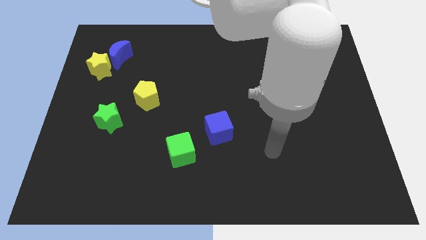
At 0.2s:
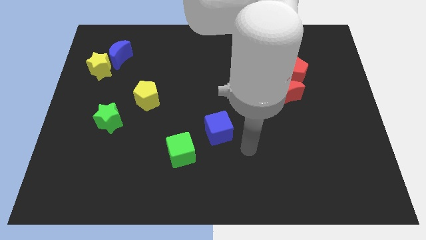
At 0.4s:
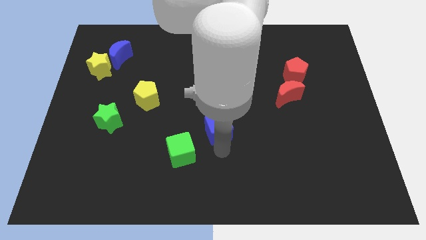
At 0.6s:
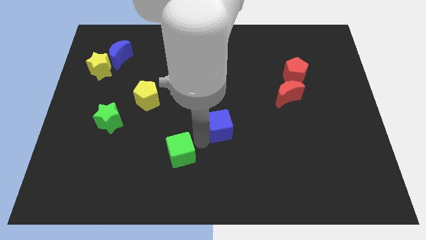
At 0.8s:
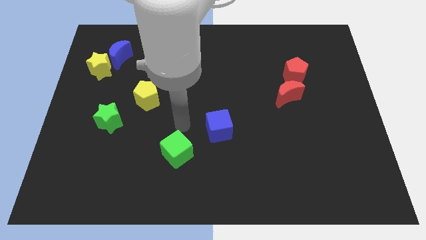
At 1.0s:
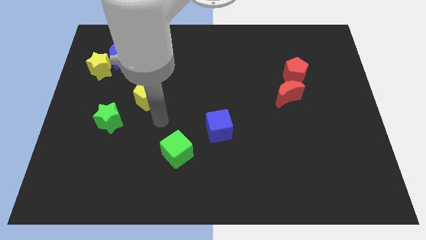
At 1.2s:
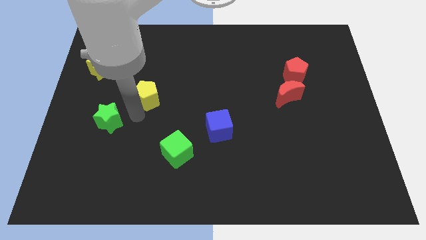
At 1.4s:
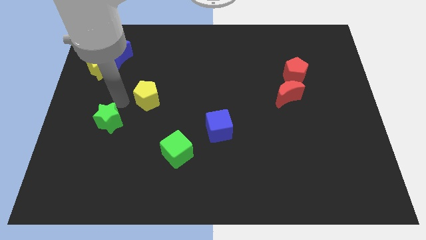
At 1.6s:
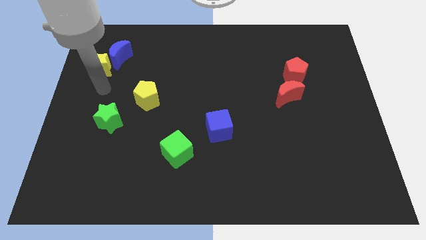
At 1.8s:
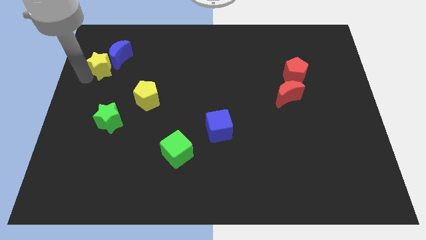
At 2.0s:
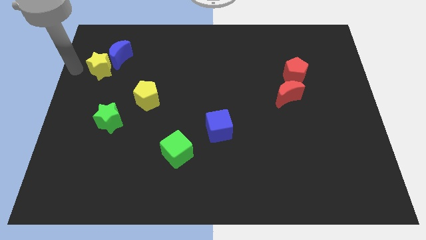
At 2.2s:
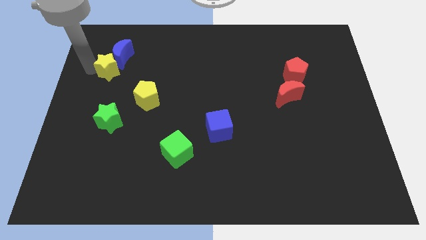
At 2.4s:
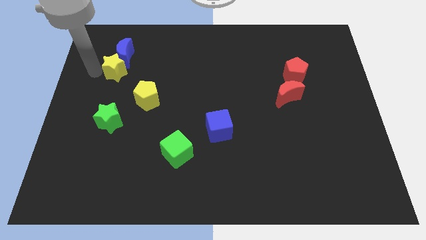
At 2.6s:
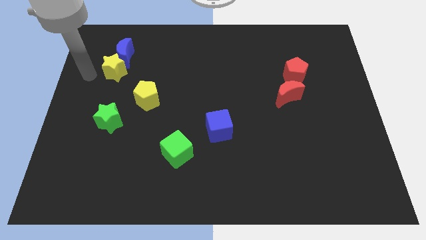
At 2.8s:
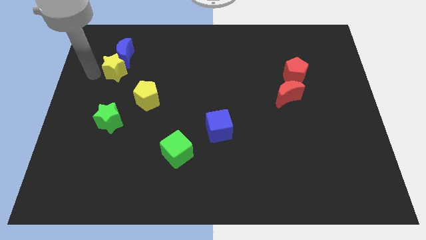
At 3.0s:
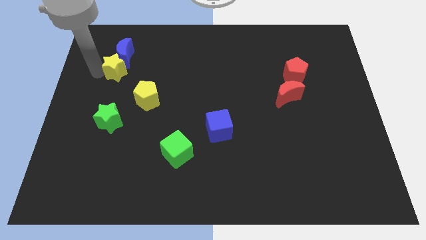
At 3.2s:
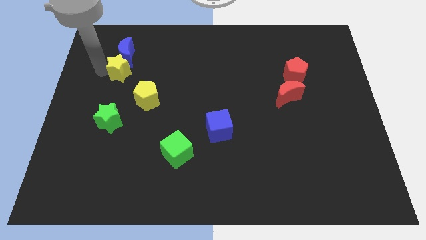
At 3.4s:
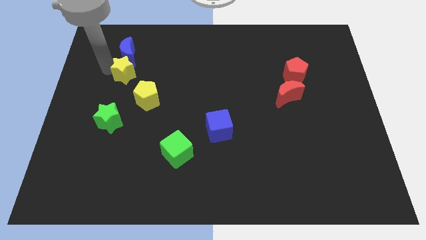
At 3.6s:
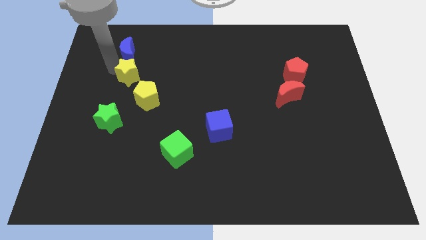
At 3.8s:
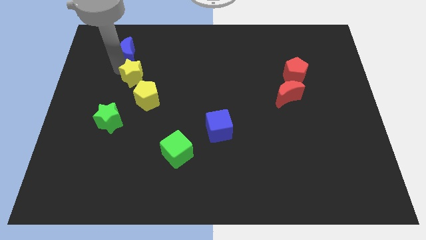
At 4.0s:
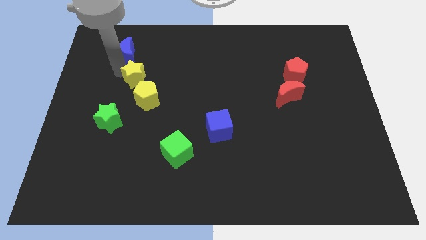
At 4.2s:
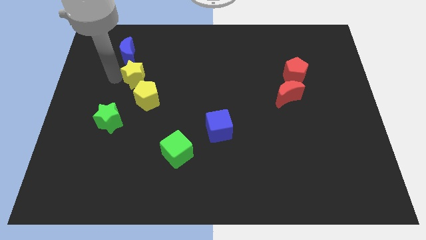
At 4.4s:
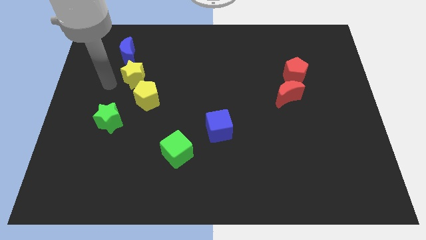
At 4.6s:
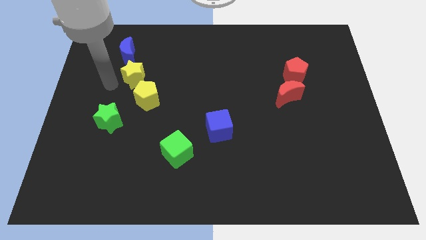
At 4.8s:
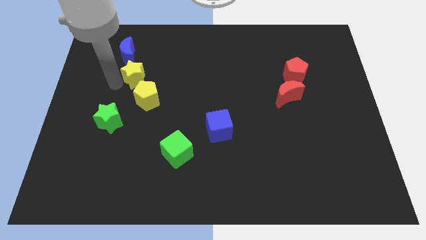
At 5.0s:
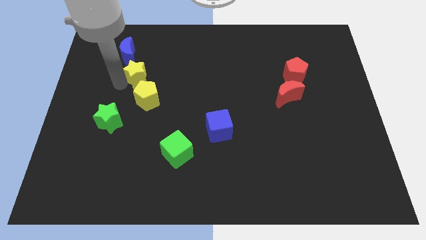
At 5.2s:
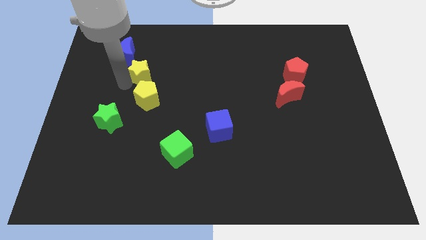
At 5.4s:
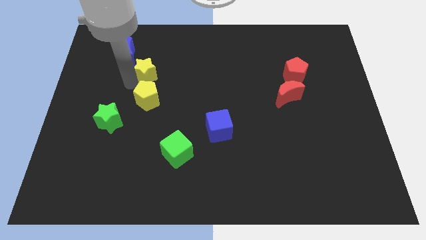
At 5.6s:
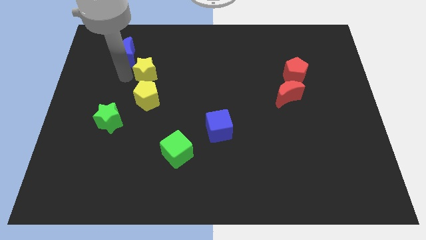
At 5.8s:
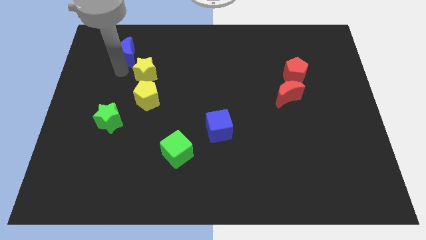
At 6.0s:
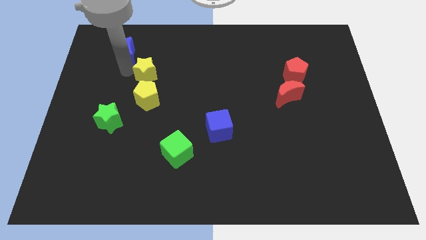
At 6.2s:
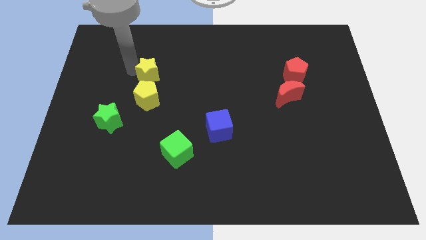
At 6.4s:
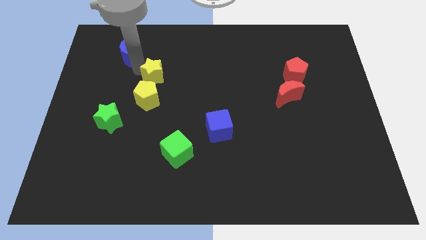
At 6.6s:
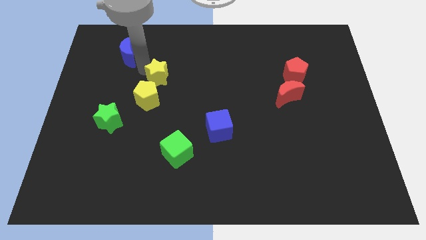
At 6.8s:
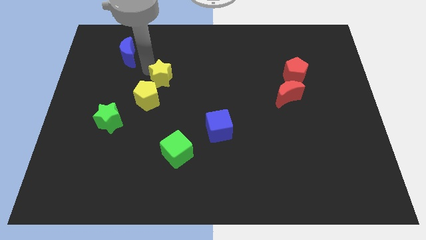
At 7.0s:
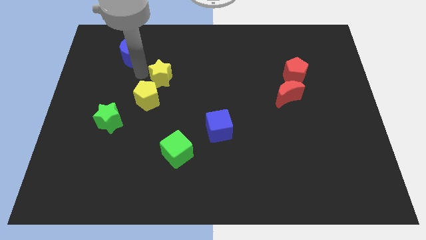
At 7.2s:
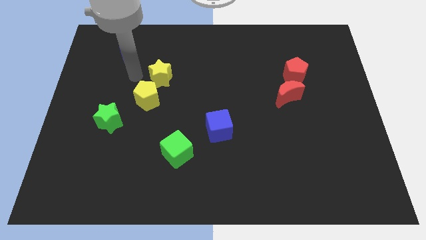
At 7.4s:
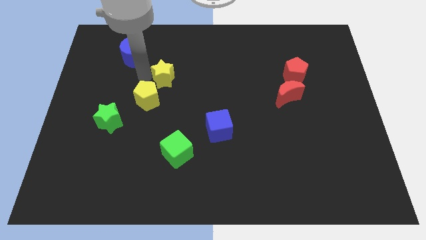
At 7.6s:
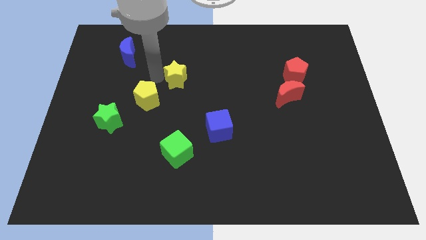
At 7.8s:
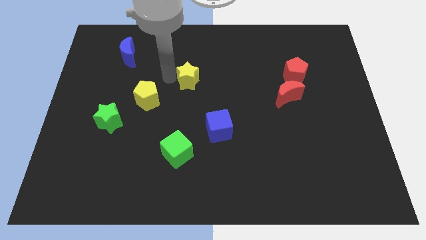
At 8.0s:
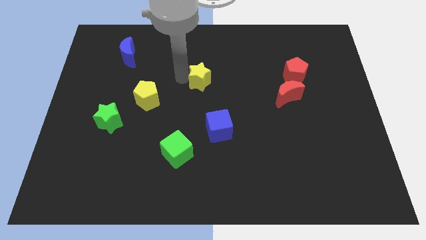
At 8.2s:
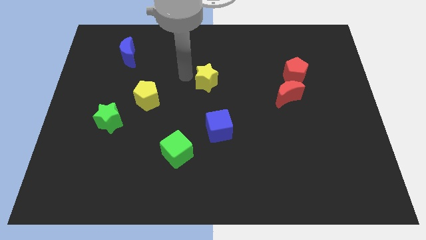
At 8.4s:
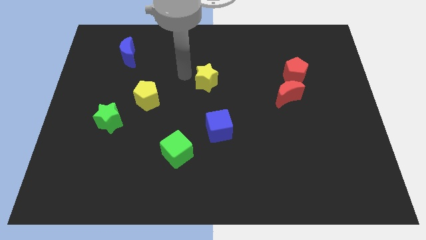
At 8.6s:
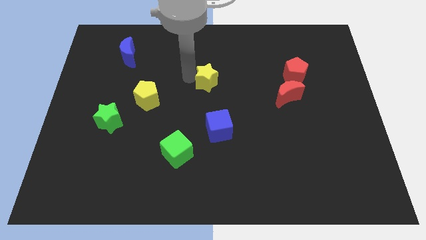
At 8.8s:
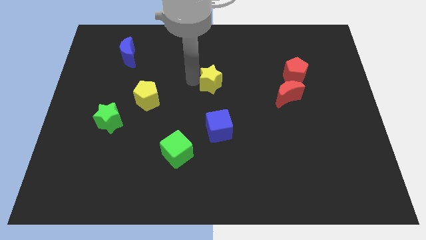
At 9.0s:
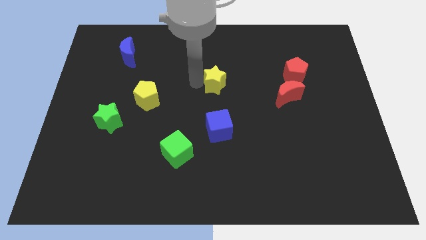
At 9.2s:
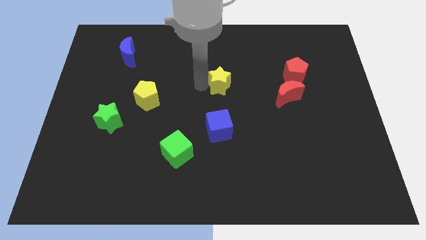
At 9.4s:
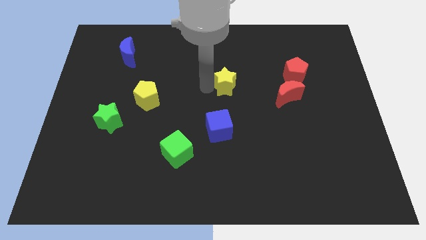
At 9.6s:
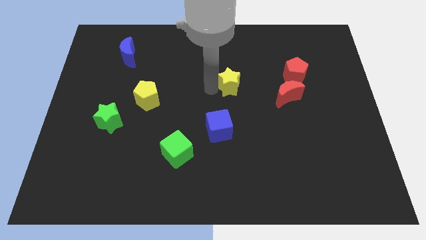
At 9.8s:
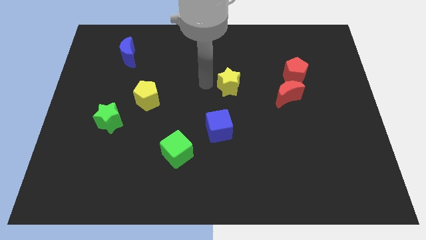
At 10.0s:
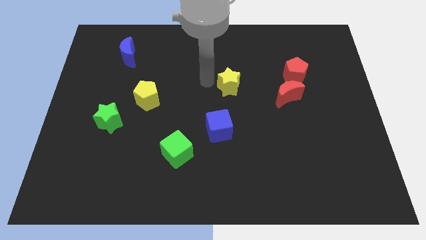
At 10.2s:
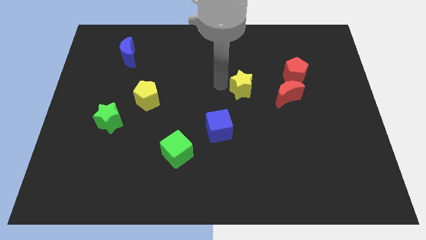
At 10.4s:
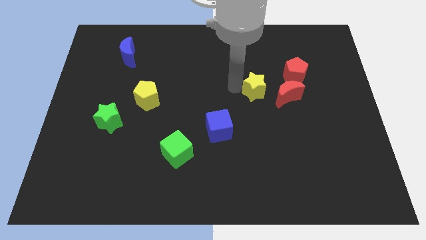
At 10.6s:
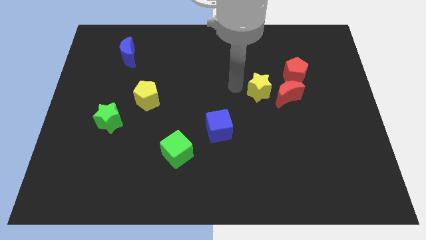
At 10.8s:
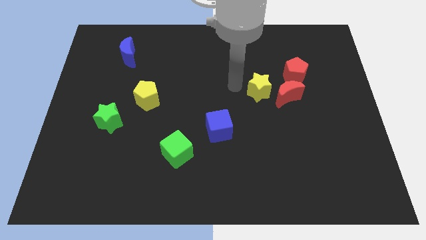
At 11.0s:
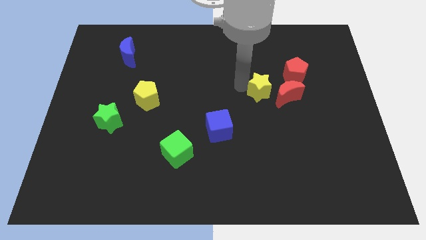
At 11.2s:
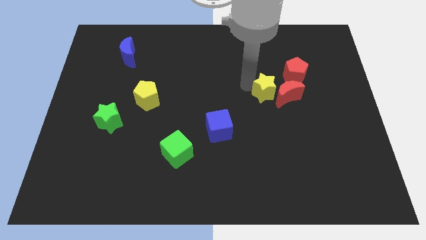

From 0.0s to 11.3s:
slide the yellow star towards the red moon

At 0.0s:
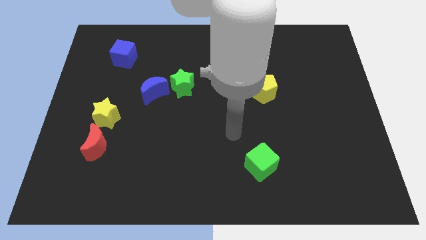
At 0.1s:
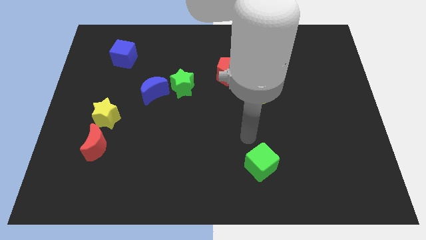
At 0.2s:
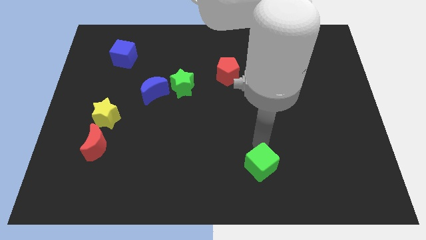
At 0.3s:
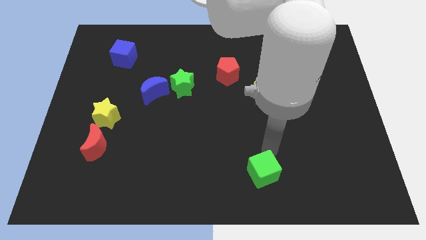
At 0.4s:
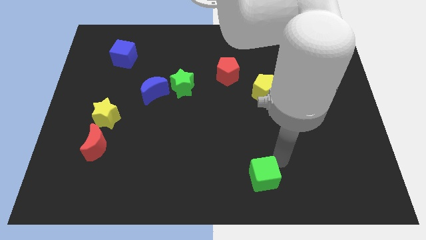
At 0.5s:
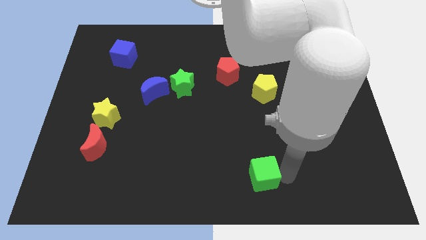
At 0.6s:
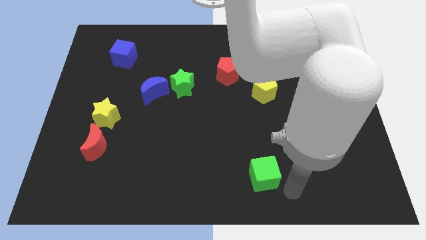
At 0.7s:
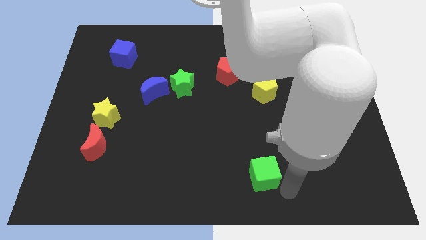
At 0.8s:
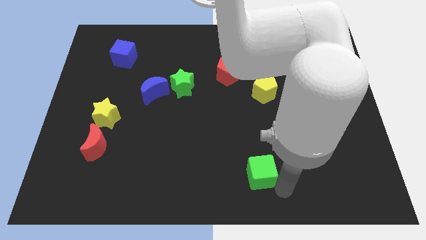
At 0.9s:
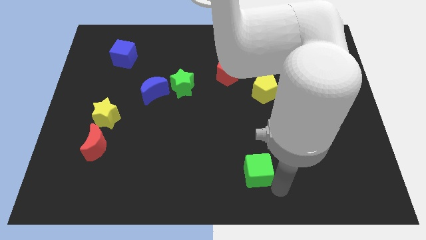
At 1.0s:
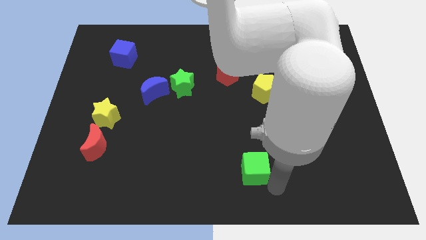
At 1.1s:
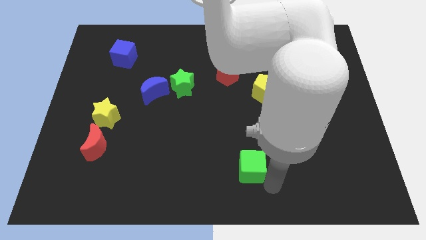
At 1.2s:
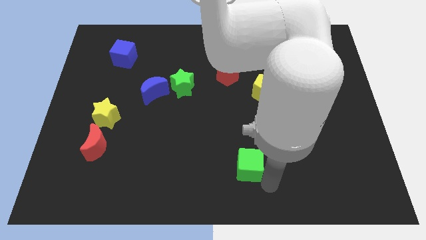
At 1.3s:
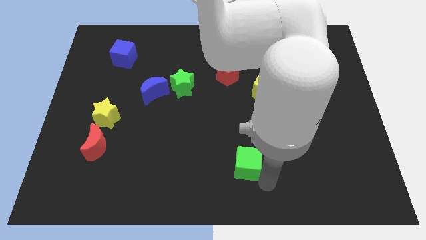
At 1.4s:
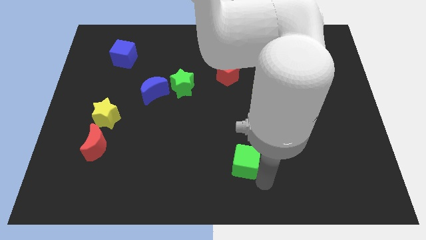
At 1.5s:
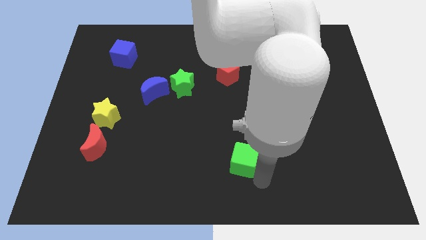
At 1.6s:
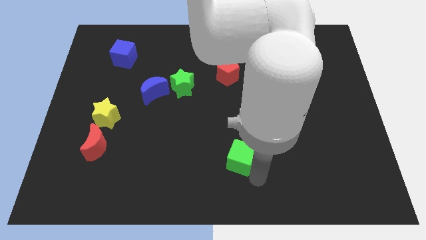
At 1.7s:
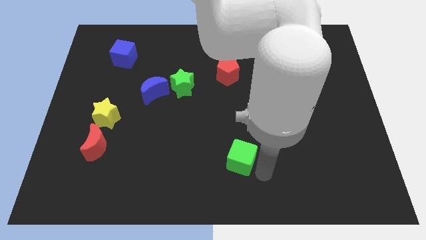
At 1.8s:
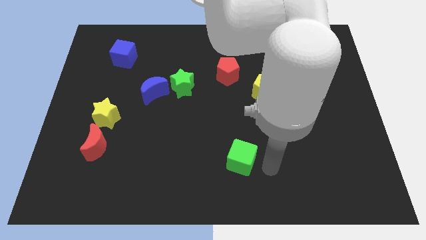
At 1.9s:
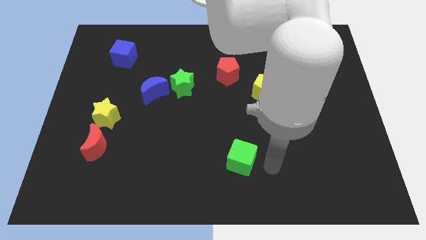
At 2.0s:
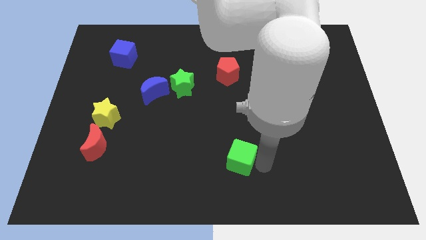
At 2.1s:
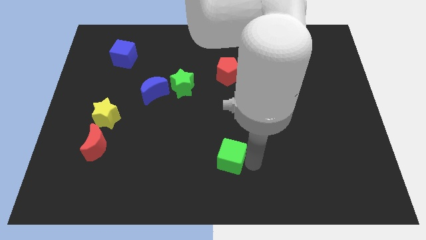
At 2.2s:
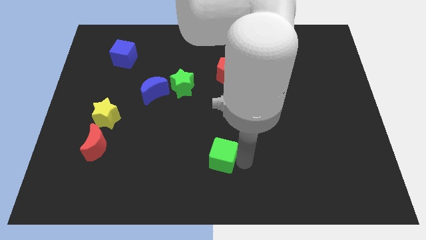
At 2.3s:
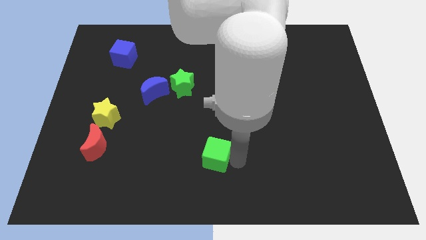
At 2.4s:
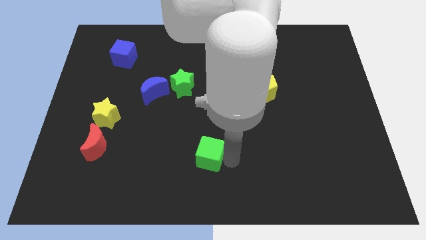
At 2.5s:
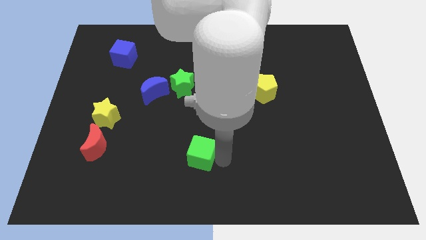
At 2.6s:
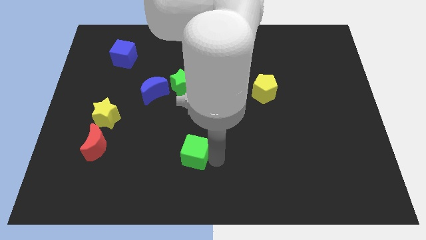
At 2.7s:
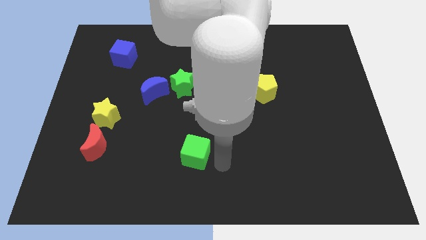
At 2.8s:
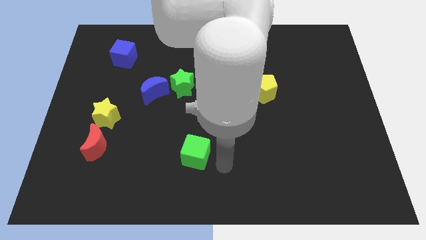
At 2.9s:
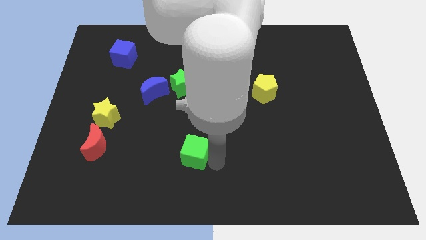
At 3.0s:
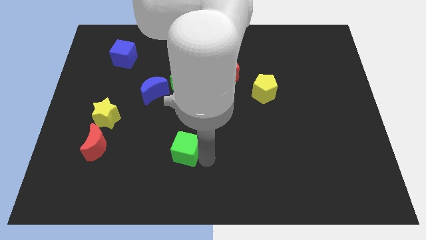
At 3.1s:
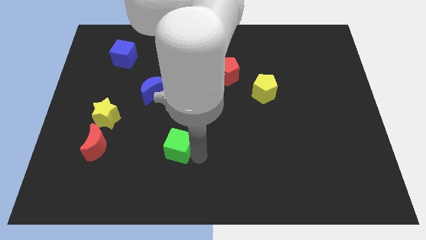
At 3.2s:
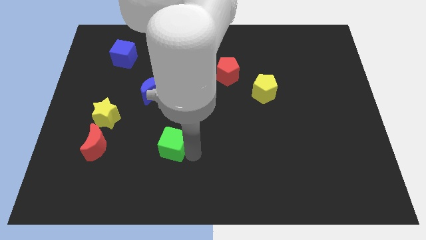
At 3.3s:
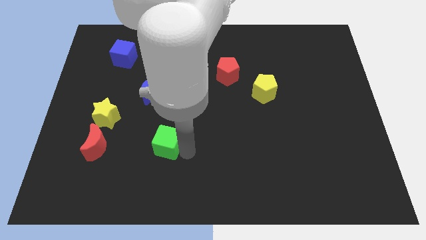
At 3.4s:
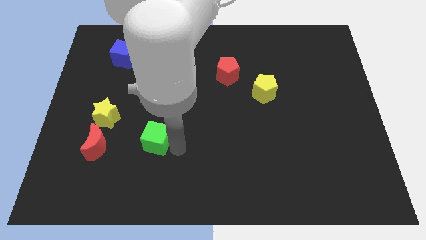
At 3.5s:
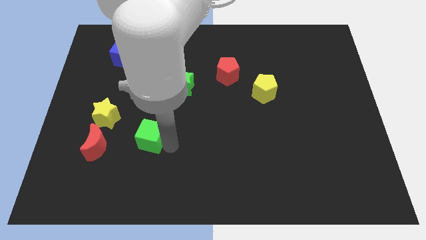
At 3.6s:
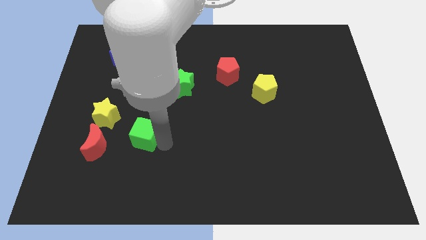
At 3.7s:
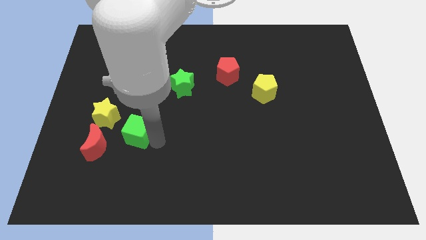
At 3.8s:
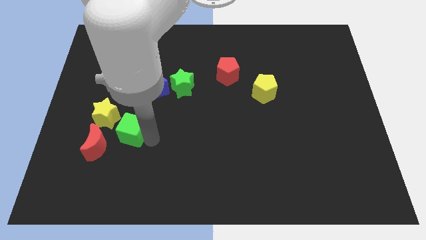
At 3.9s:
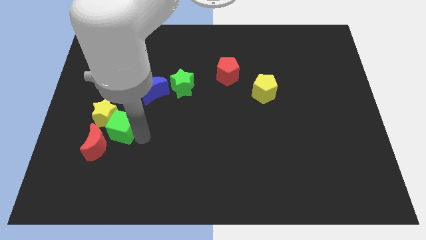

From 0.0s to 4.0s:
put the green cube towards the yellow star
